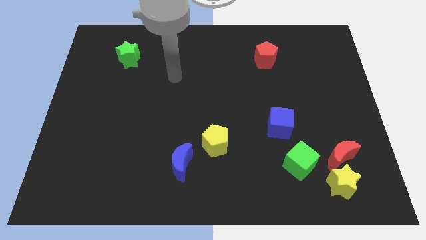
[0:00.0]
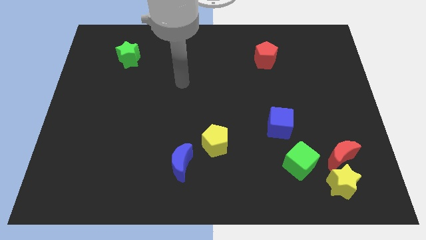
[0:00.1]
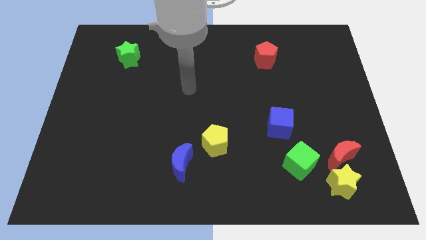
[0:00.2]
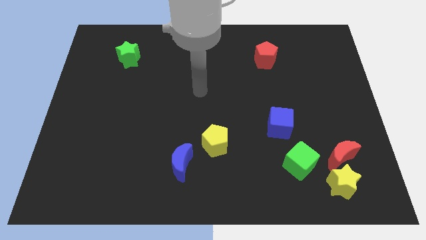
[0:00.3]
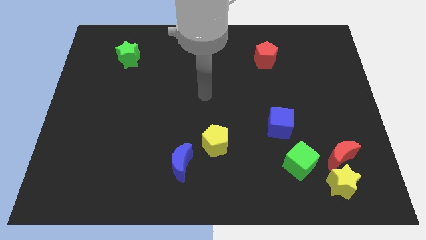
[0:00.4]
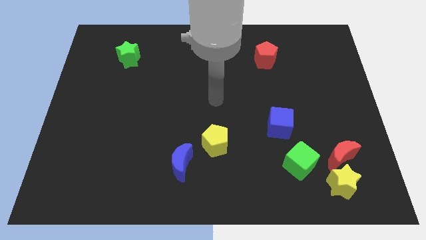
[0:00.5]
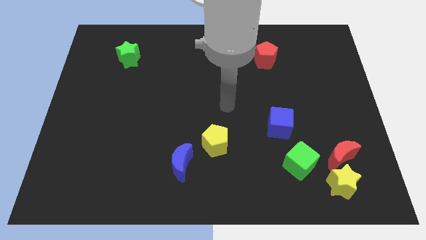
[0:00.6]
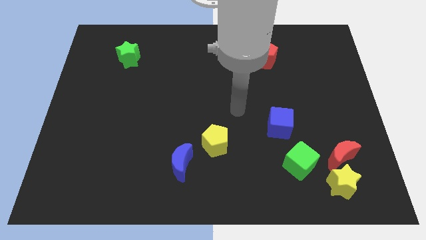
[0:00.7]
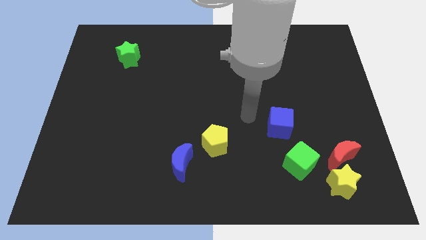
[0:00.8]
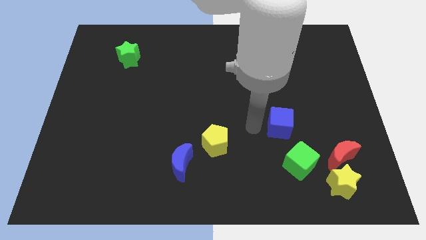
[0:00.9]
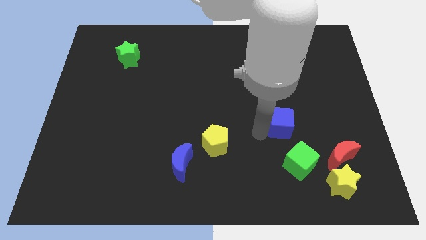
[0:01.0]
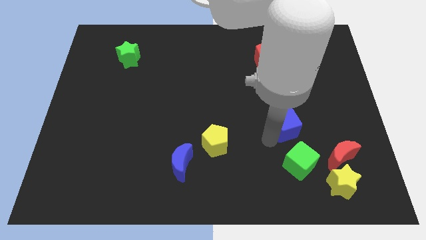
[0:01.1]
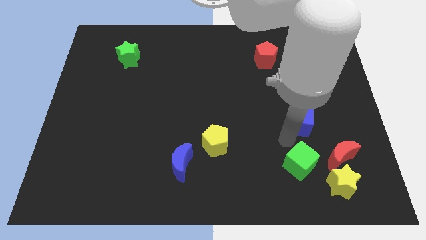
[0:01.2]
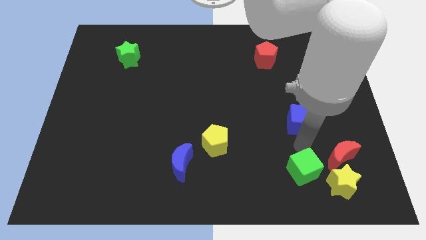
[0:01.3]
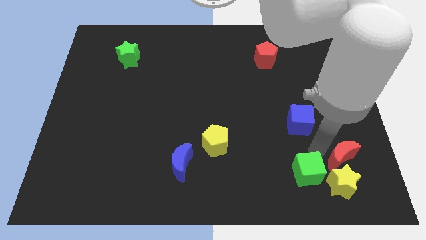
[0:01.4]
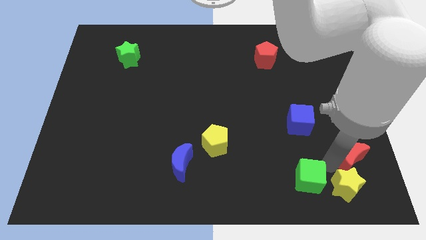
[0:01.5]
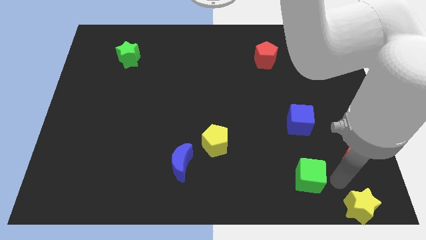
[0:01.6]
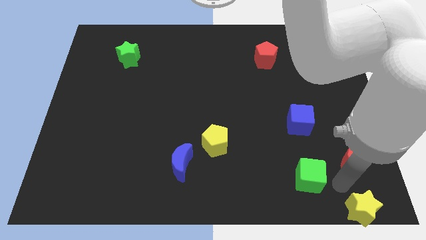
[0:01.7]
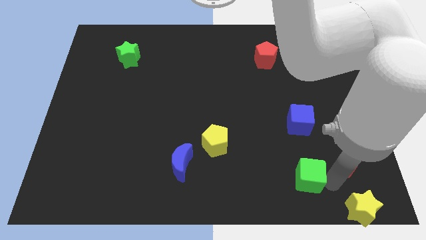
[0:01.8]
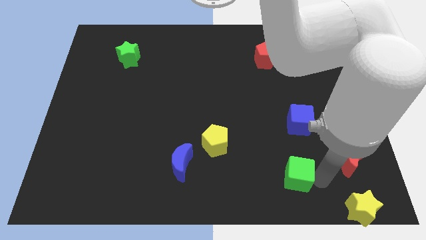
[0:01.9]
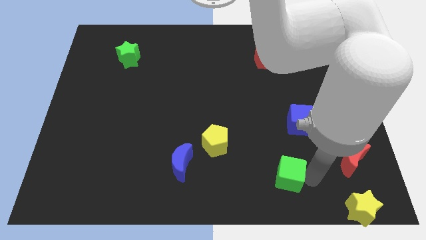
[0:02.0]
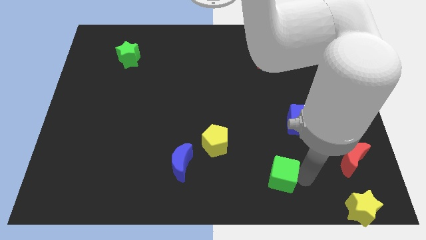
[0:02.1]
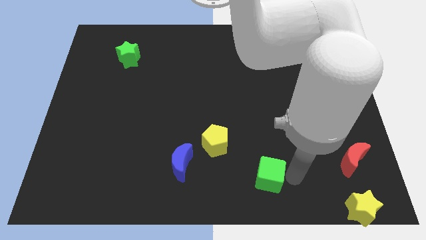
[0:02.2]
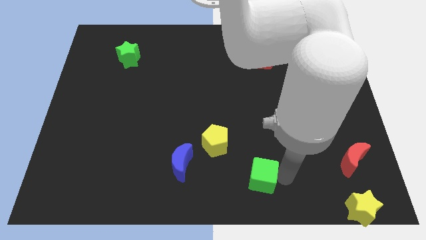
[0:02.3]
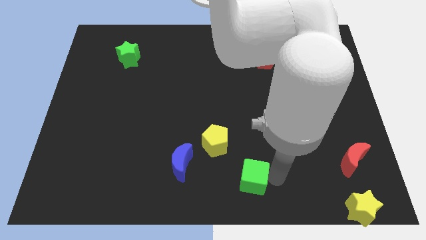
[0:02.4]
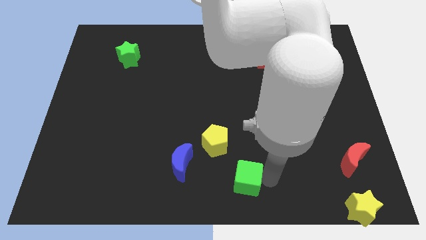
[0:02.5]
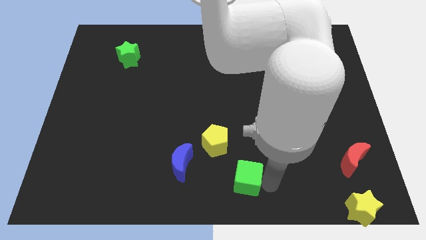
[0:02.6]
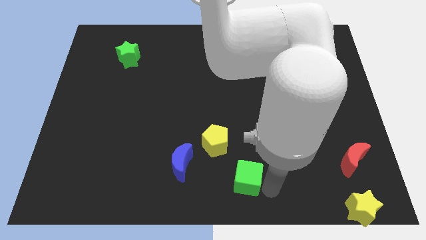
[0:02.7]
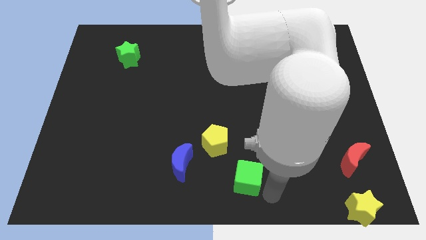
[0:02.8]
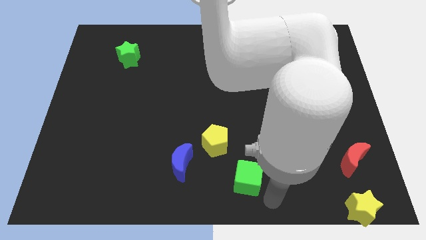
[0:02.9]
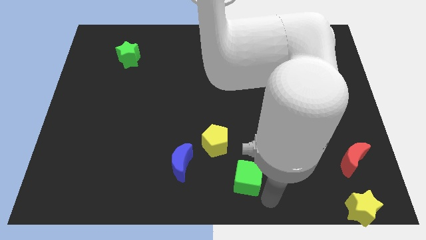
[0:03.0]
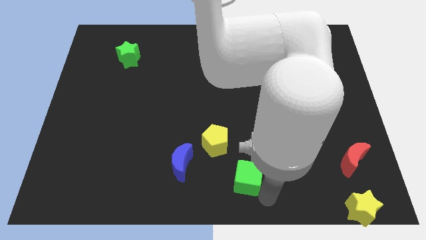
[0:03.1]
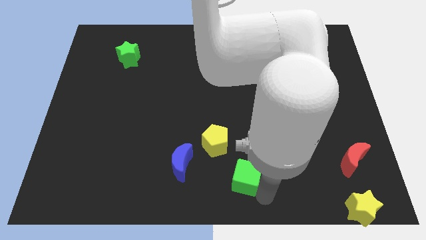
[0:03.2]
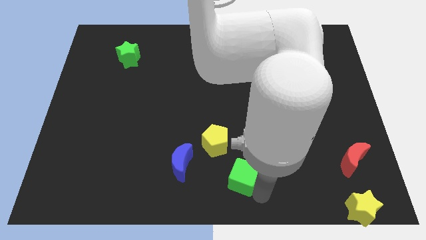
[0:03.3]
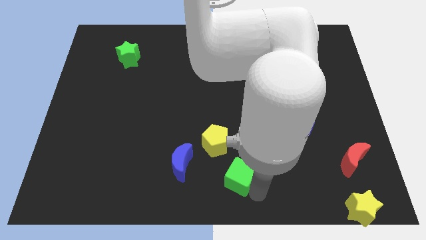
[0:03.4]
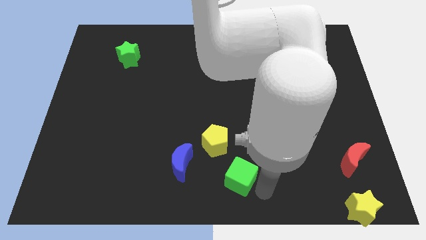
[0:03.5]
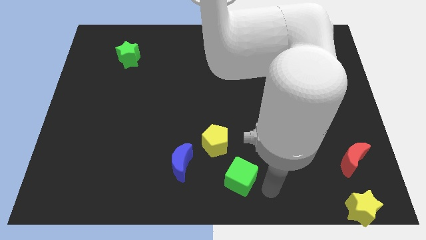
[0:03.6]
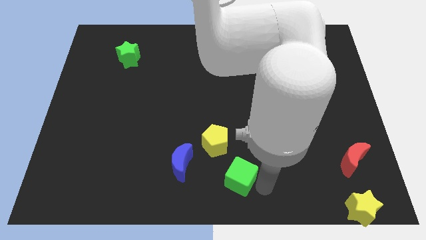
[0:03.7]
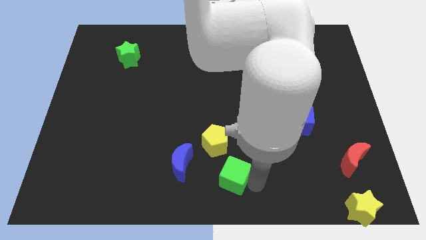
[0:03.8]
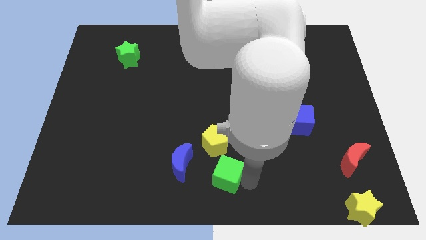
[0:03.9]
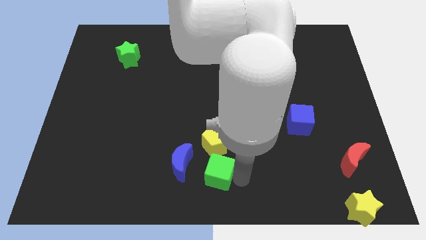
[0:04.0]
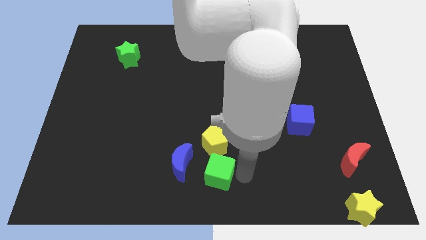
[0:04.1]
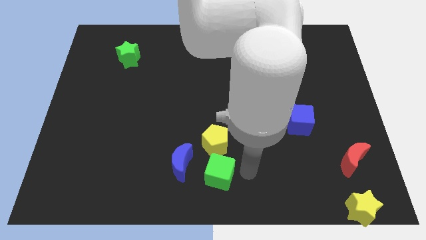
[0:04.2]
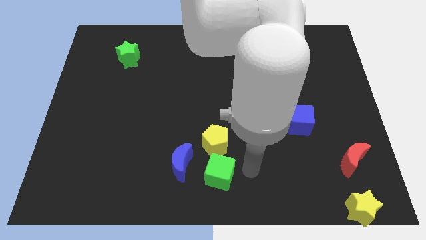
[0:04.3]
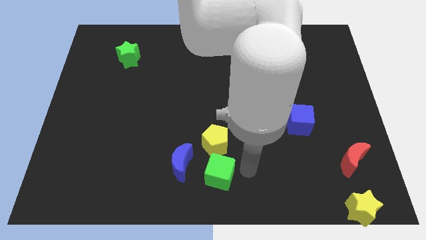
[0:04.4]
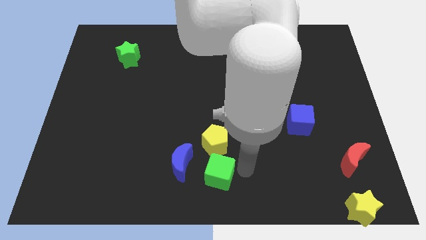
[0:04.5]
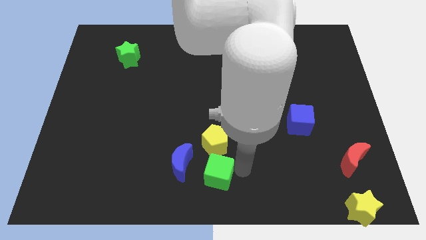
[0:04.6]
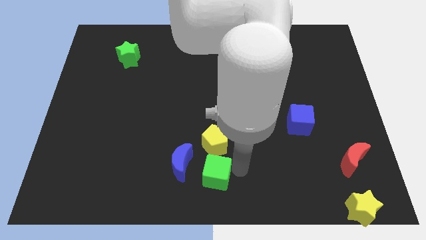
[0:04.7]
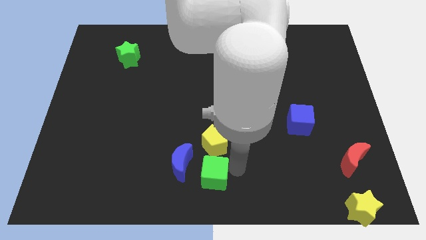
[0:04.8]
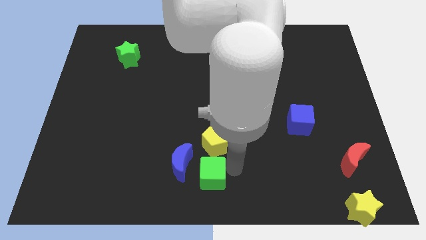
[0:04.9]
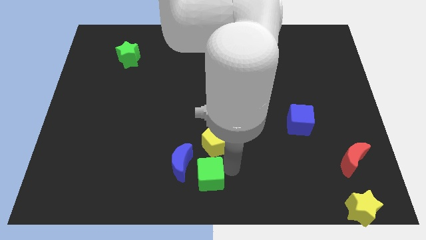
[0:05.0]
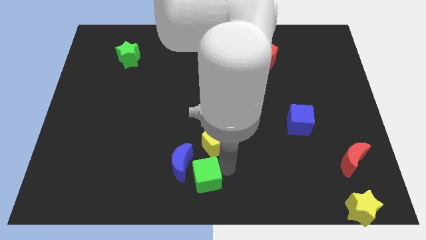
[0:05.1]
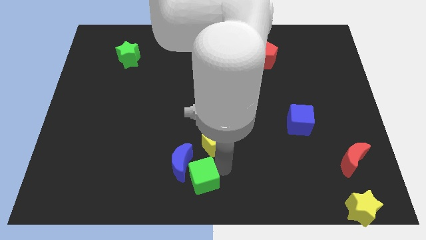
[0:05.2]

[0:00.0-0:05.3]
push the green cube left

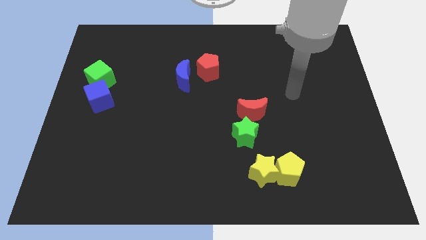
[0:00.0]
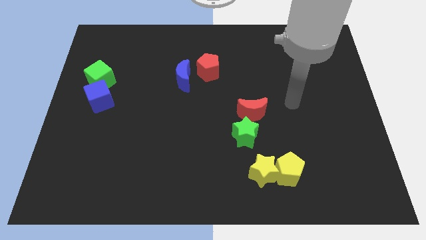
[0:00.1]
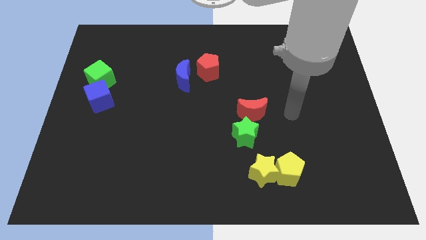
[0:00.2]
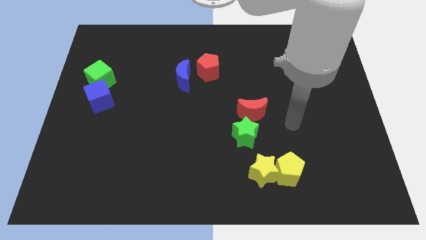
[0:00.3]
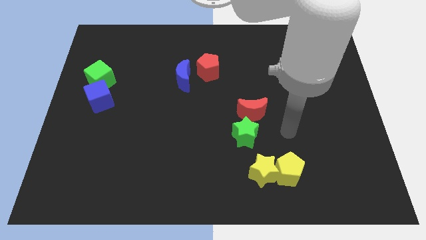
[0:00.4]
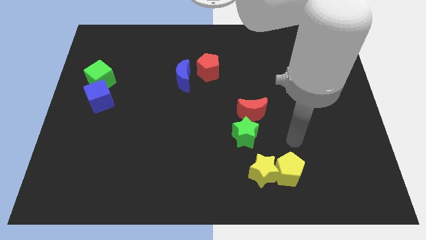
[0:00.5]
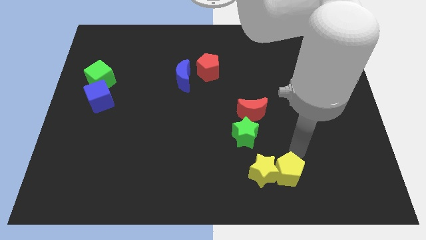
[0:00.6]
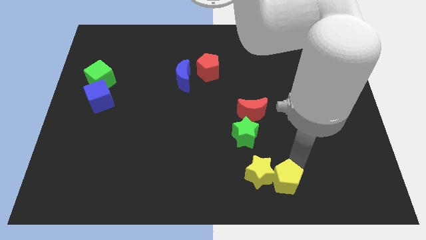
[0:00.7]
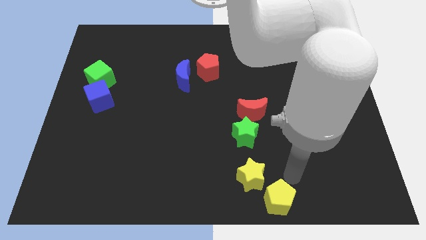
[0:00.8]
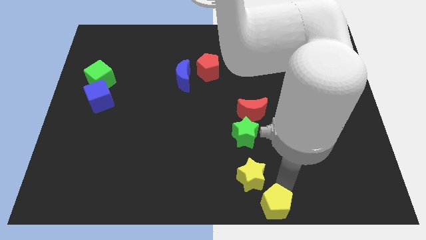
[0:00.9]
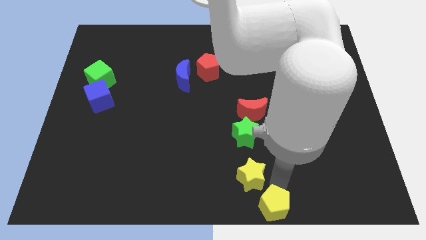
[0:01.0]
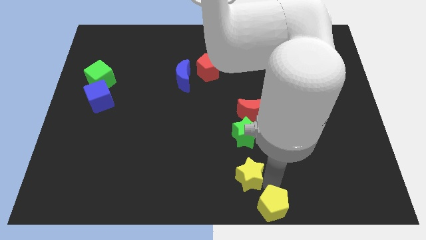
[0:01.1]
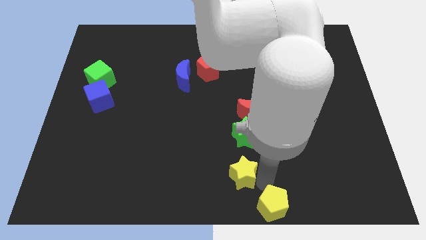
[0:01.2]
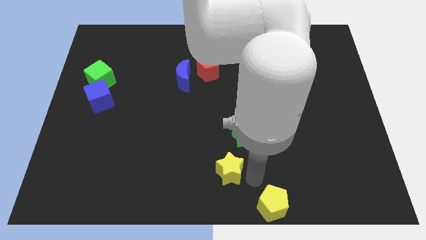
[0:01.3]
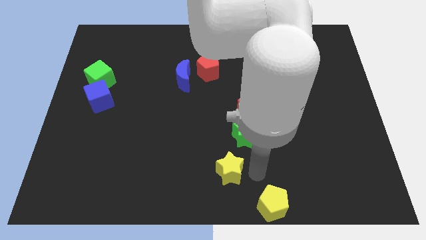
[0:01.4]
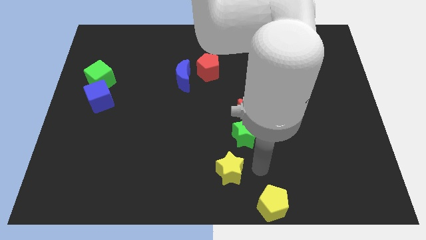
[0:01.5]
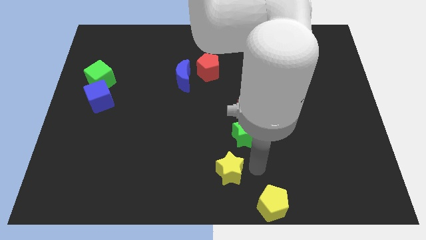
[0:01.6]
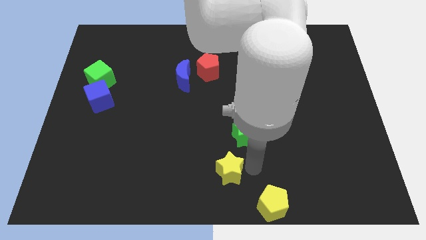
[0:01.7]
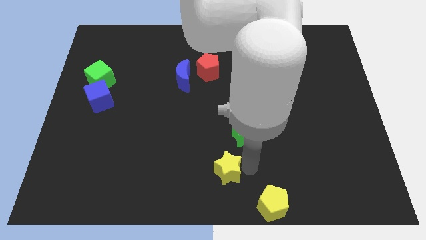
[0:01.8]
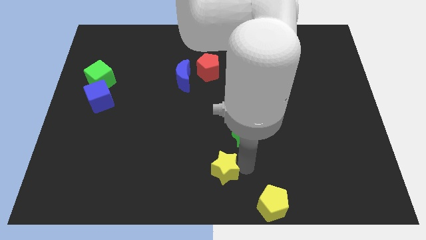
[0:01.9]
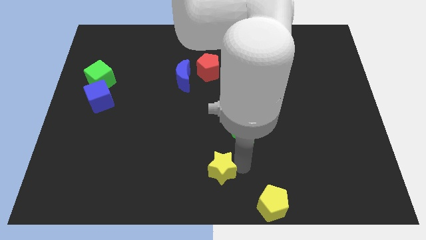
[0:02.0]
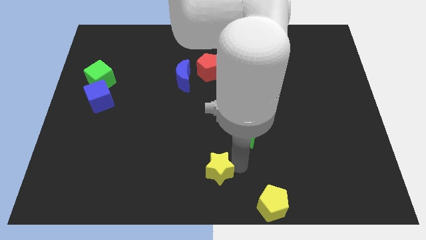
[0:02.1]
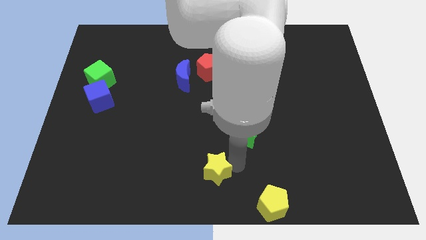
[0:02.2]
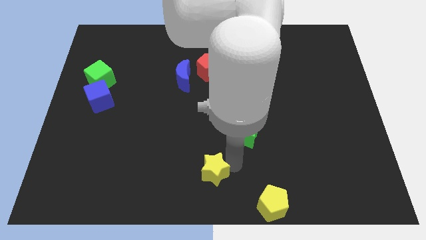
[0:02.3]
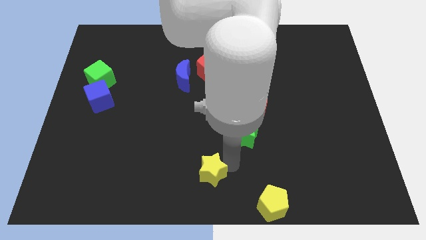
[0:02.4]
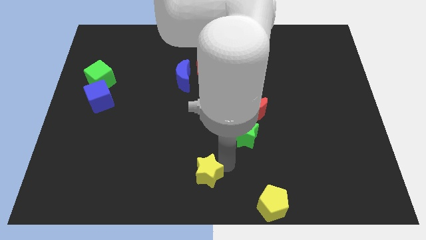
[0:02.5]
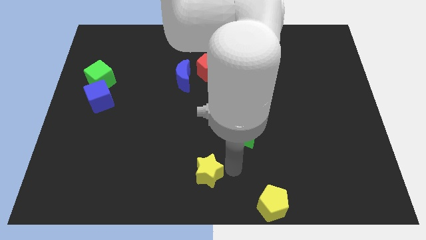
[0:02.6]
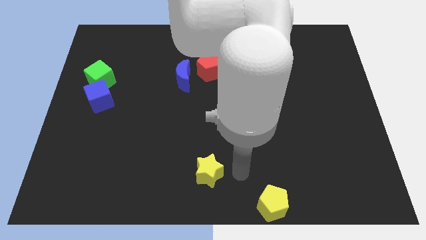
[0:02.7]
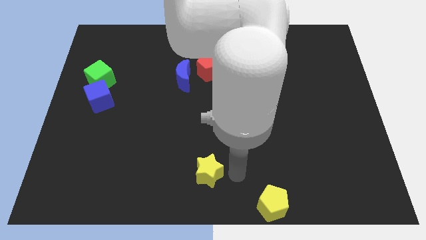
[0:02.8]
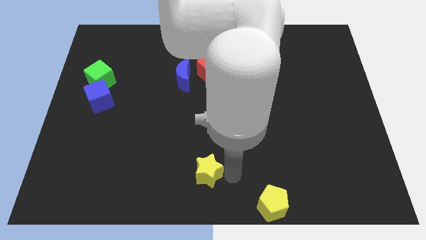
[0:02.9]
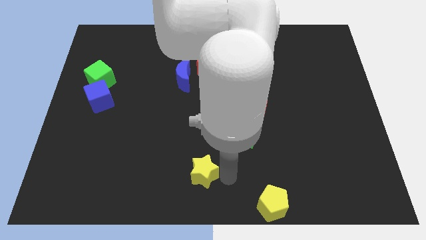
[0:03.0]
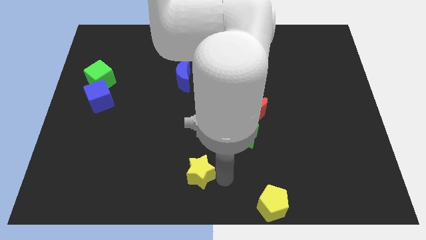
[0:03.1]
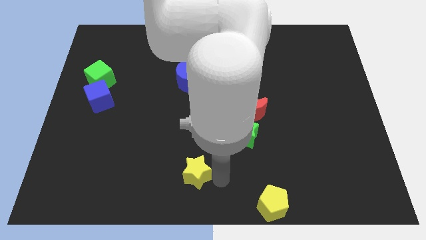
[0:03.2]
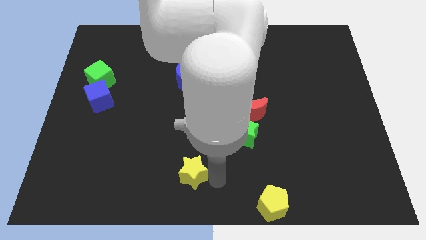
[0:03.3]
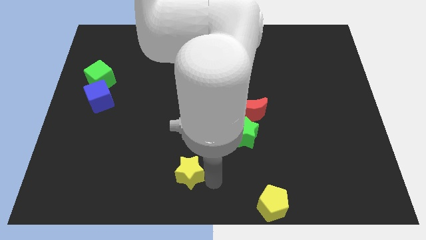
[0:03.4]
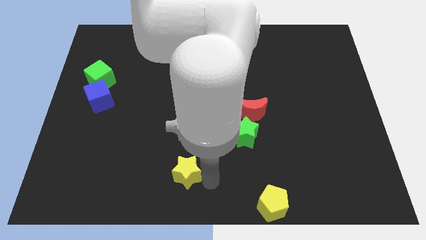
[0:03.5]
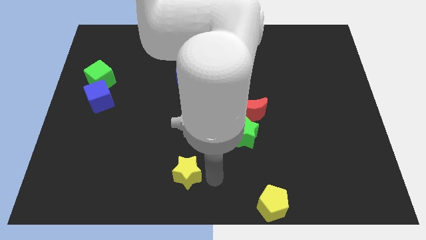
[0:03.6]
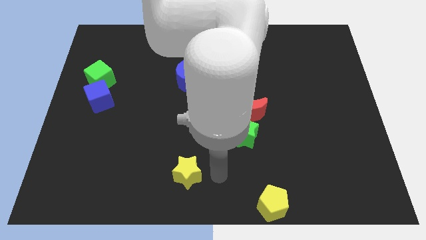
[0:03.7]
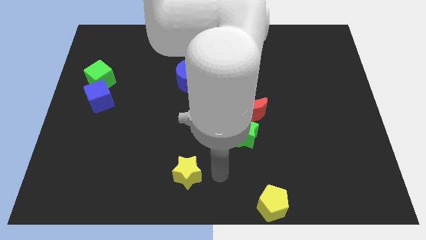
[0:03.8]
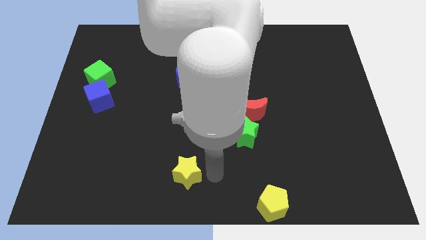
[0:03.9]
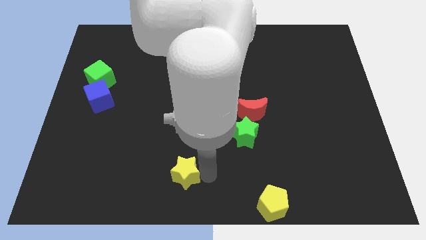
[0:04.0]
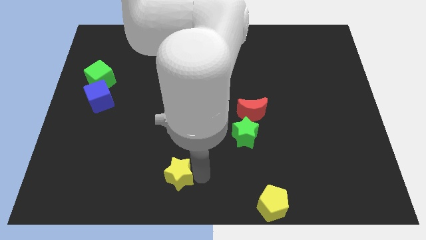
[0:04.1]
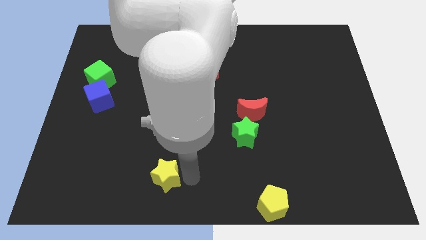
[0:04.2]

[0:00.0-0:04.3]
move the yellow star left
